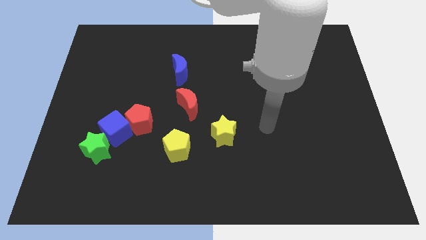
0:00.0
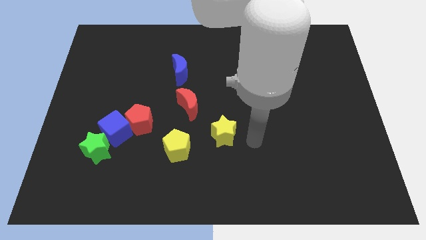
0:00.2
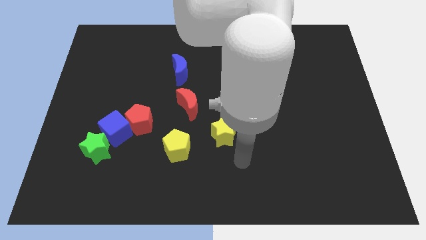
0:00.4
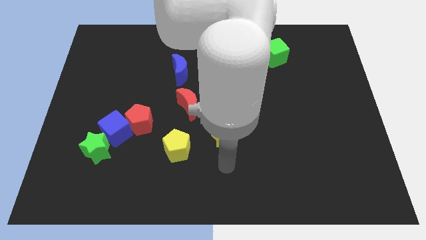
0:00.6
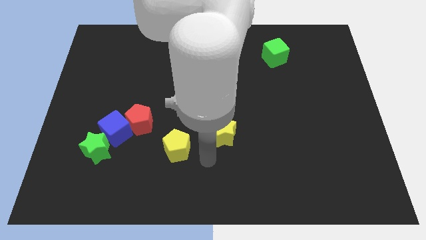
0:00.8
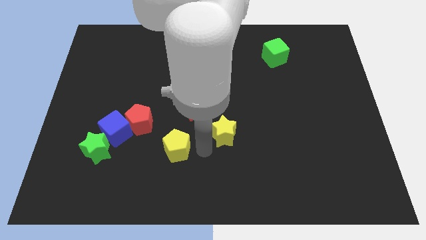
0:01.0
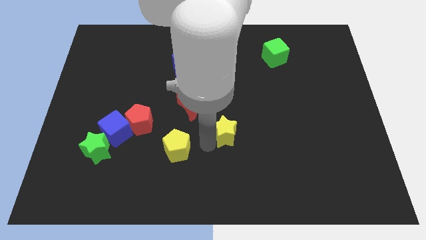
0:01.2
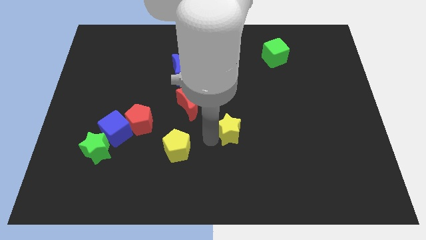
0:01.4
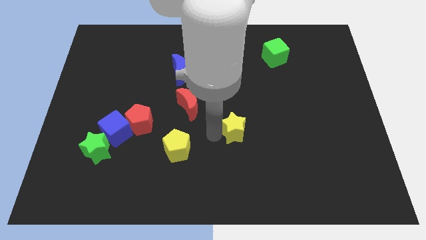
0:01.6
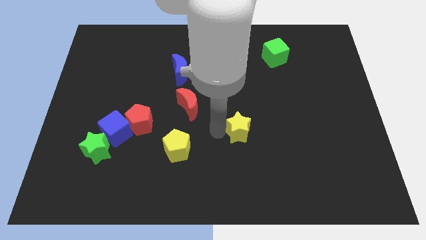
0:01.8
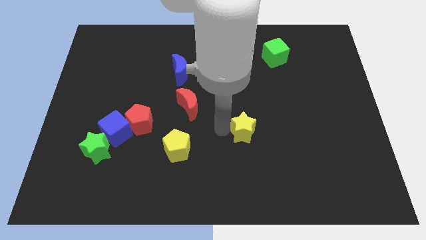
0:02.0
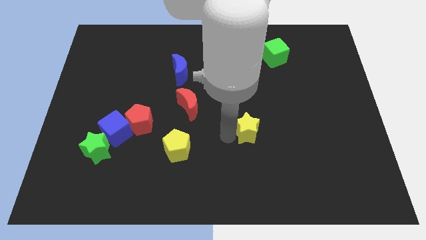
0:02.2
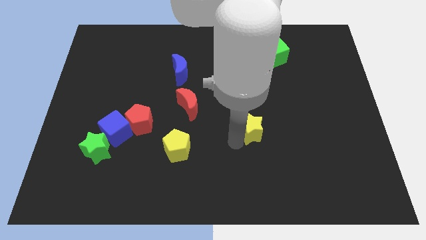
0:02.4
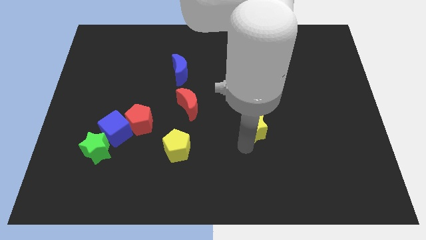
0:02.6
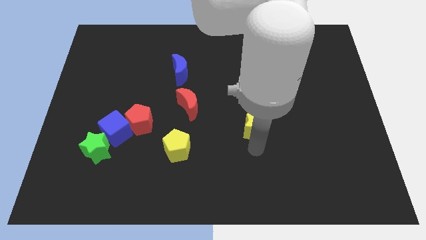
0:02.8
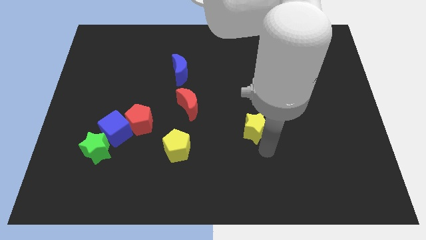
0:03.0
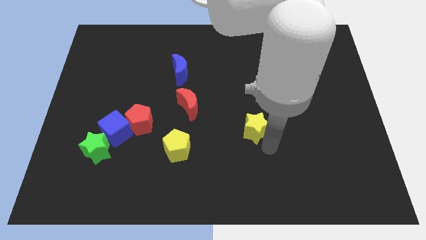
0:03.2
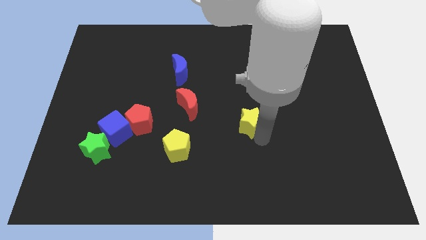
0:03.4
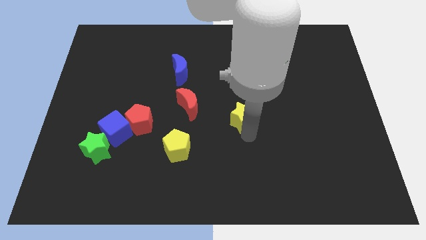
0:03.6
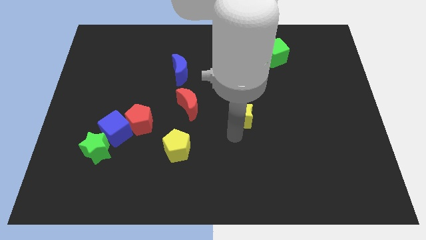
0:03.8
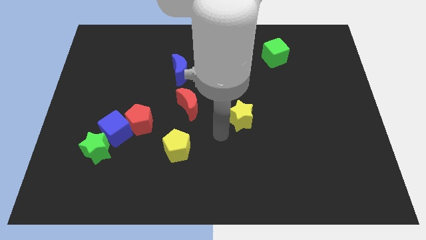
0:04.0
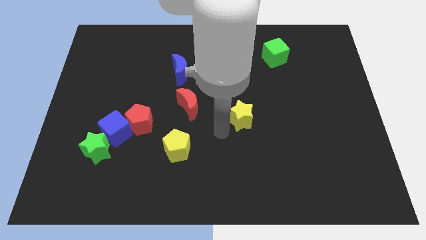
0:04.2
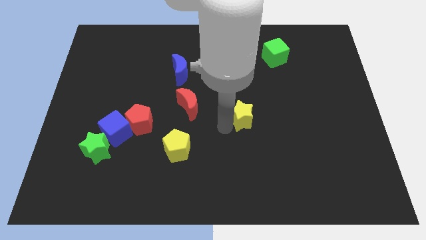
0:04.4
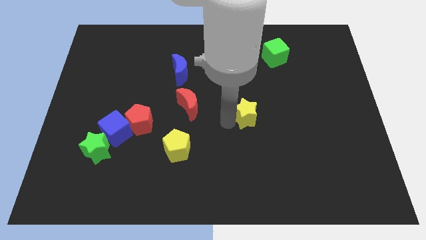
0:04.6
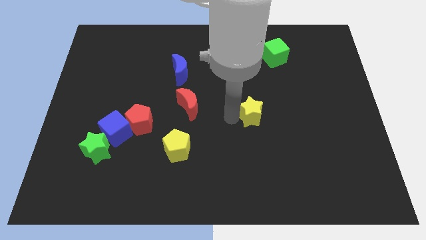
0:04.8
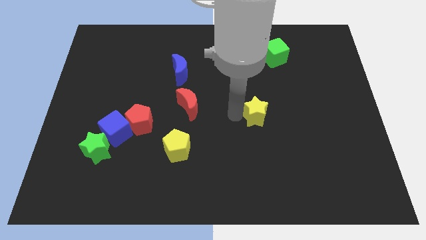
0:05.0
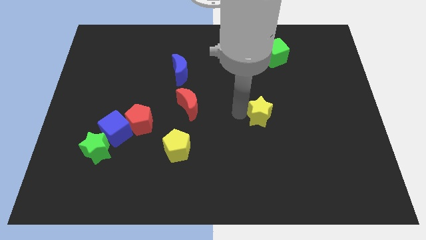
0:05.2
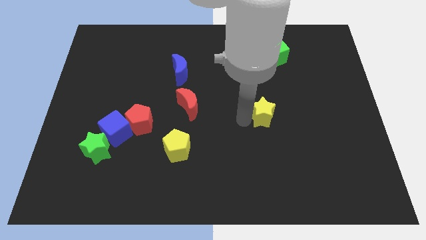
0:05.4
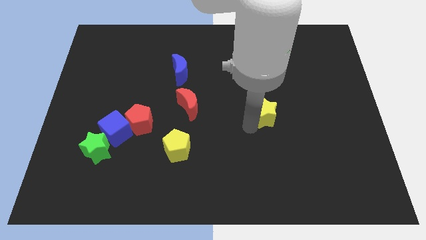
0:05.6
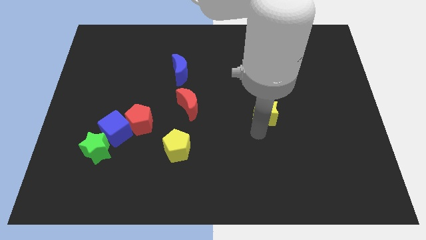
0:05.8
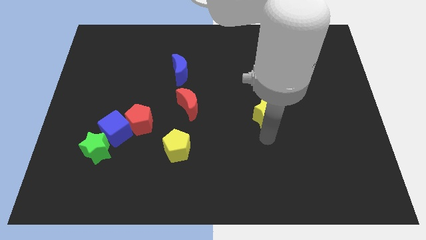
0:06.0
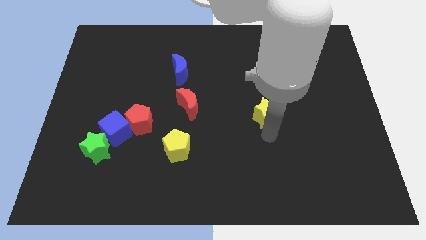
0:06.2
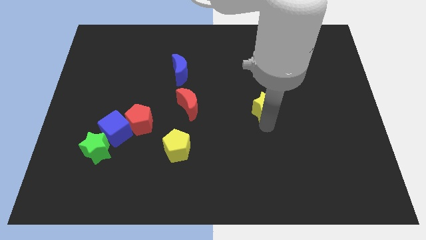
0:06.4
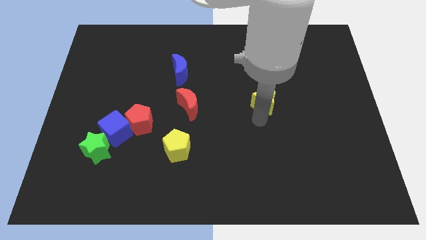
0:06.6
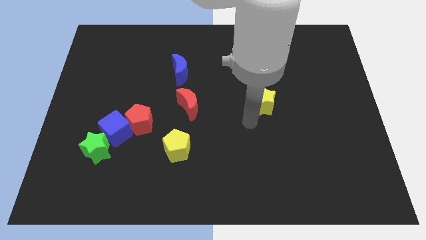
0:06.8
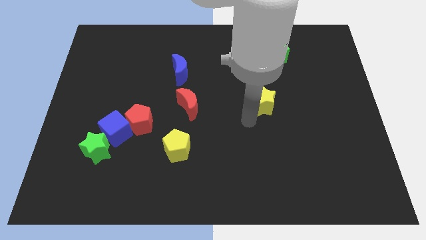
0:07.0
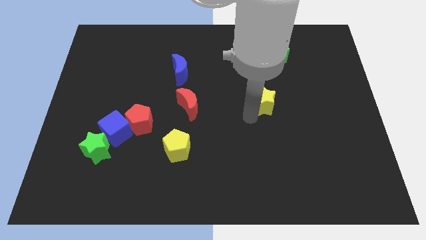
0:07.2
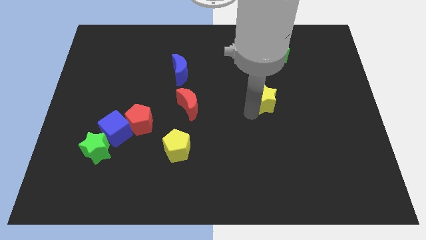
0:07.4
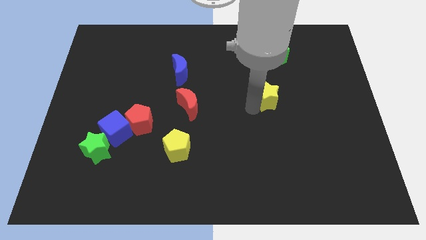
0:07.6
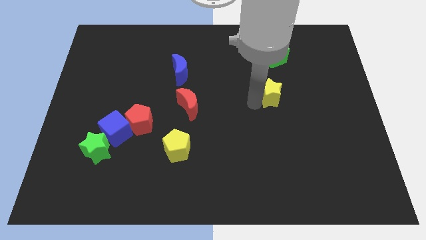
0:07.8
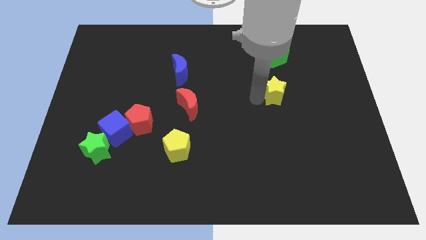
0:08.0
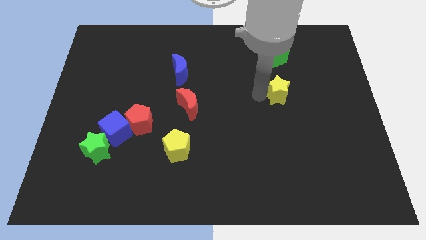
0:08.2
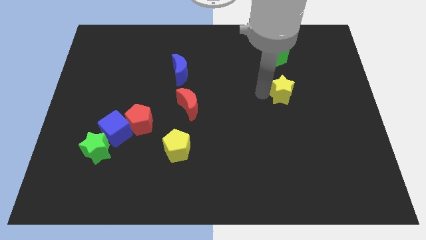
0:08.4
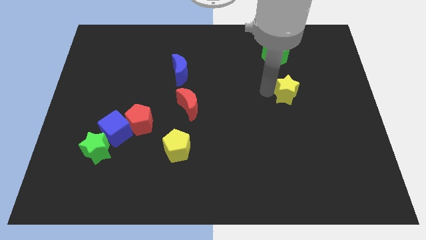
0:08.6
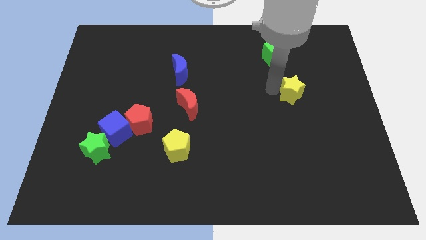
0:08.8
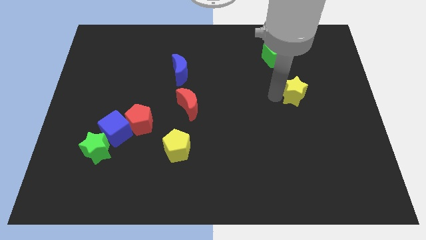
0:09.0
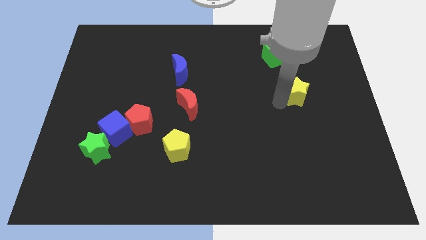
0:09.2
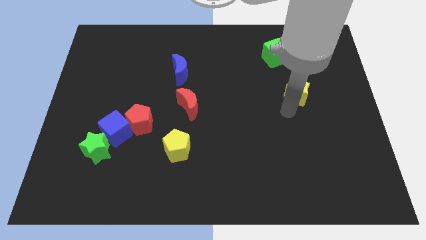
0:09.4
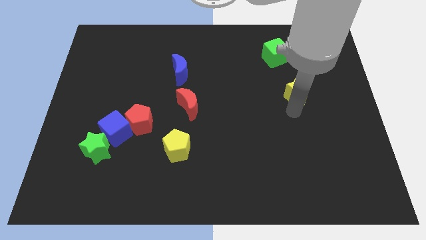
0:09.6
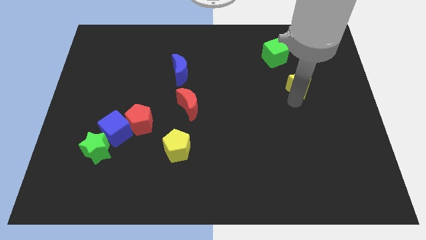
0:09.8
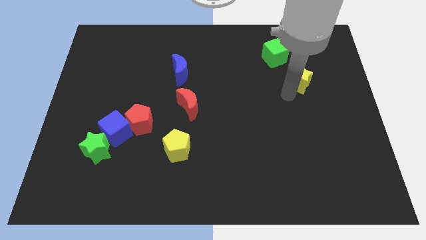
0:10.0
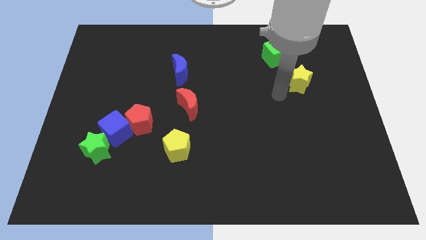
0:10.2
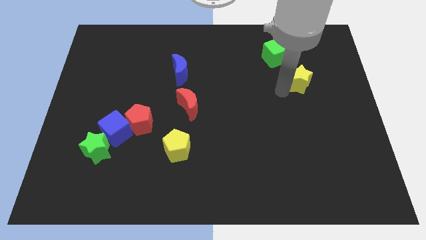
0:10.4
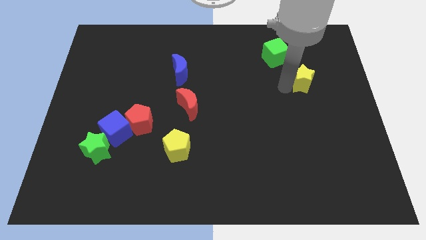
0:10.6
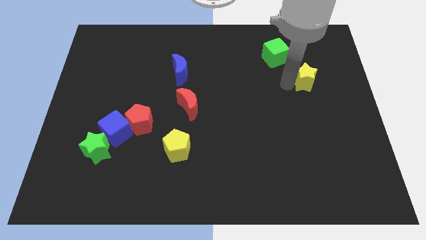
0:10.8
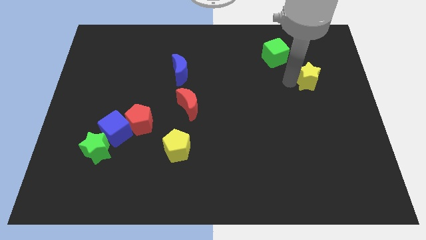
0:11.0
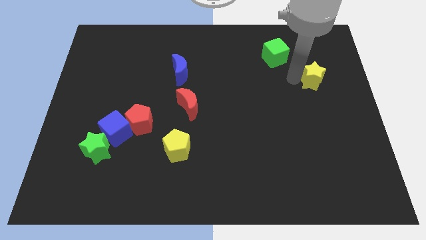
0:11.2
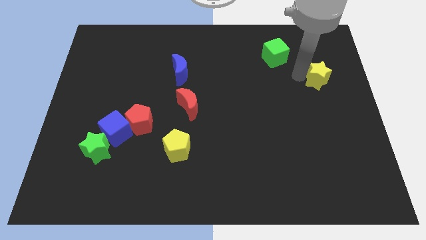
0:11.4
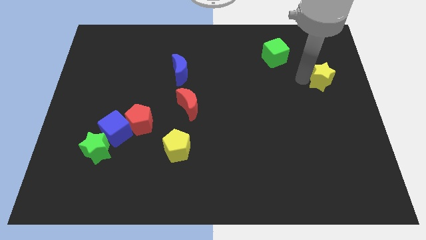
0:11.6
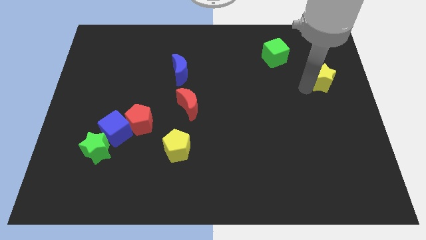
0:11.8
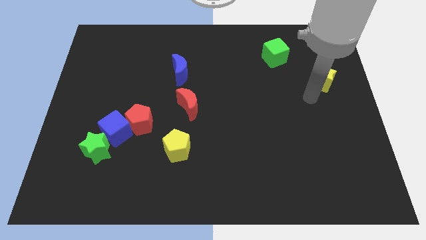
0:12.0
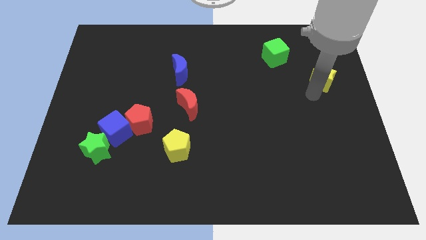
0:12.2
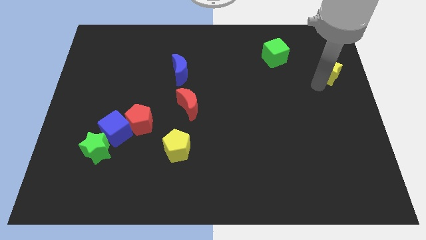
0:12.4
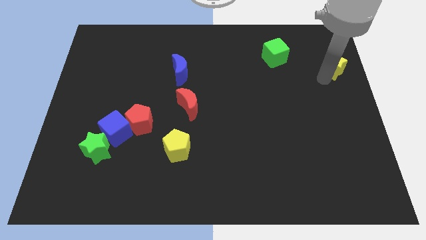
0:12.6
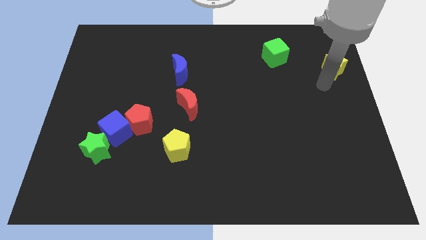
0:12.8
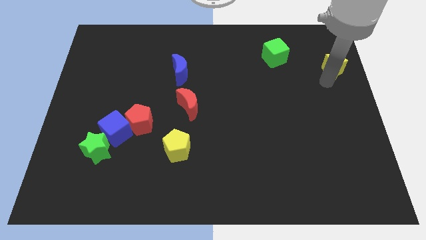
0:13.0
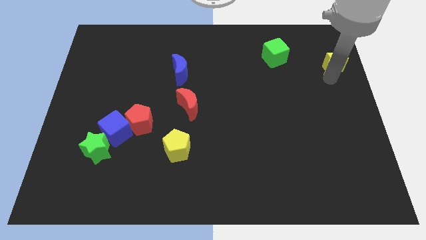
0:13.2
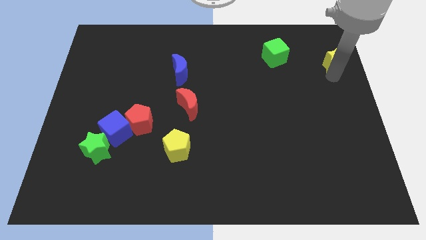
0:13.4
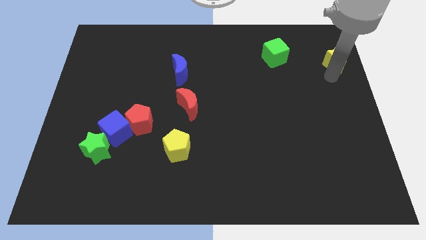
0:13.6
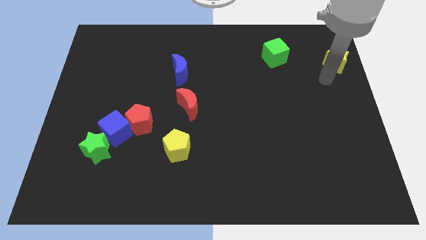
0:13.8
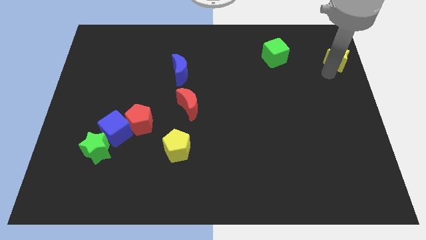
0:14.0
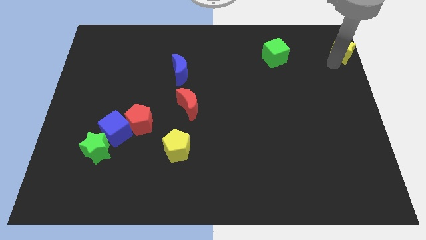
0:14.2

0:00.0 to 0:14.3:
move the yellow star to the top right corner
